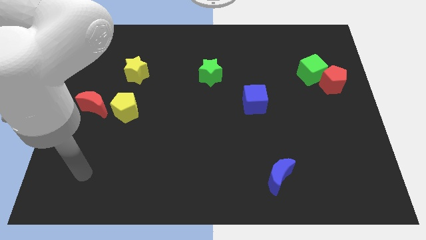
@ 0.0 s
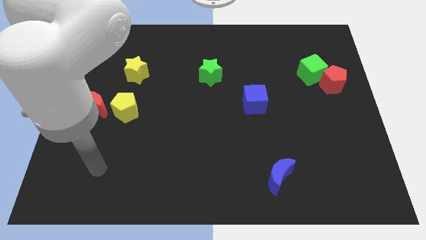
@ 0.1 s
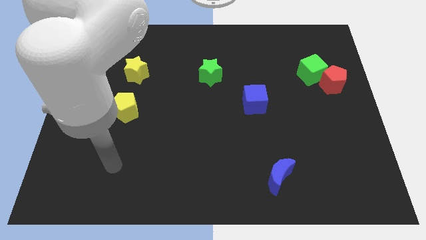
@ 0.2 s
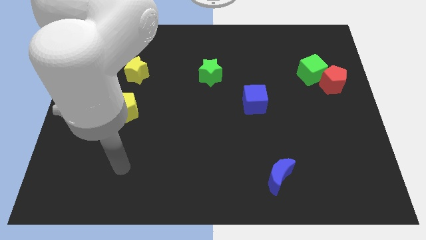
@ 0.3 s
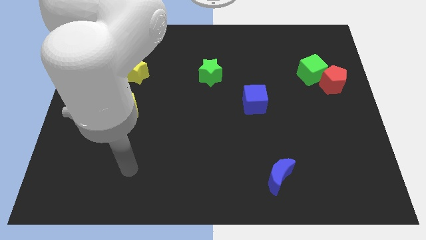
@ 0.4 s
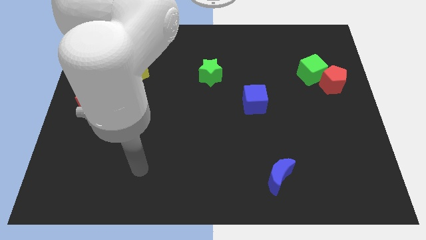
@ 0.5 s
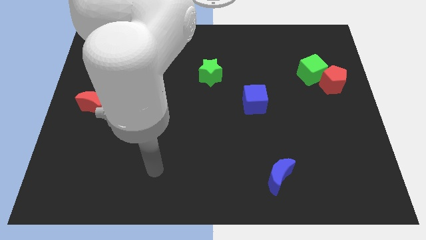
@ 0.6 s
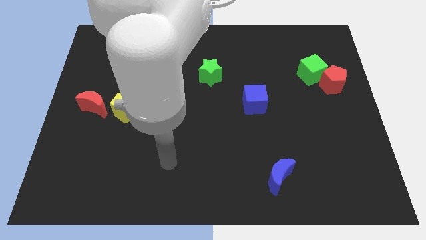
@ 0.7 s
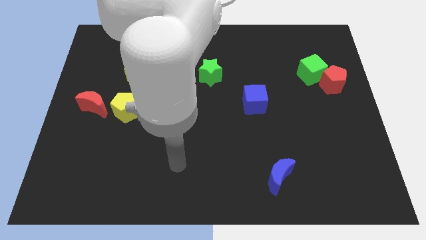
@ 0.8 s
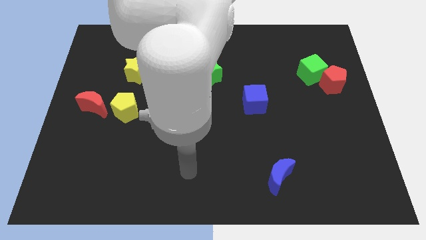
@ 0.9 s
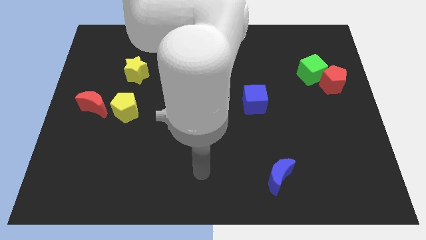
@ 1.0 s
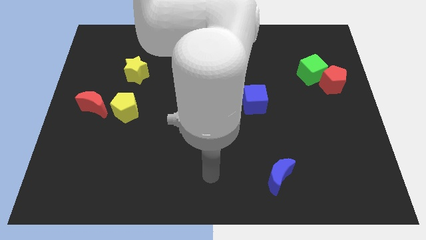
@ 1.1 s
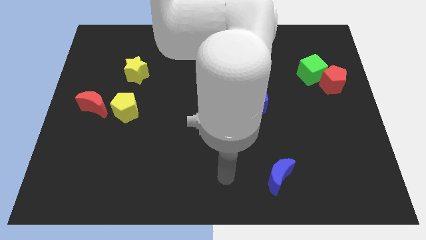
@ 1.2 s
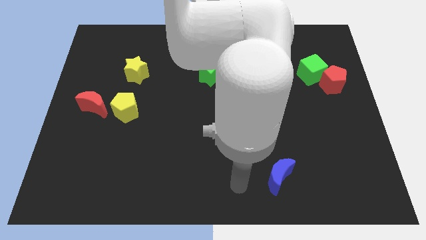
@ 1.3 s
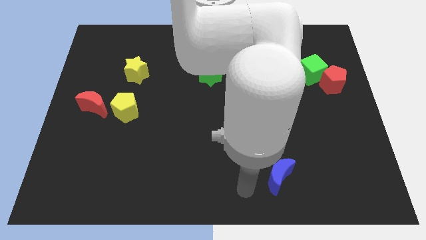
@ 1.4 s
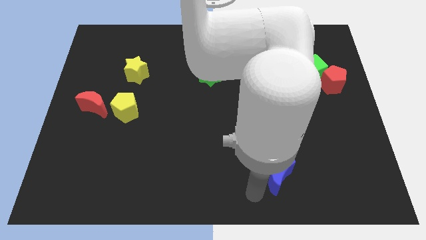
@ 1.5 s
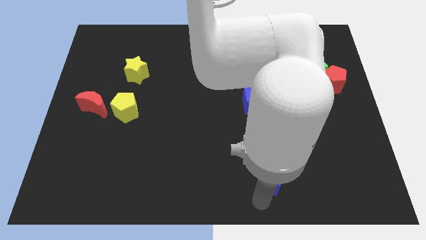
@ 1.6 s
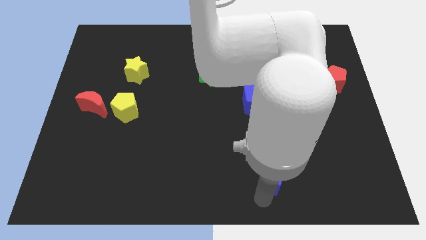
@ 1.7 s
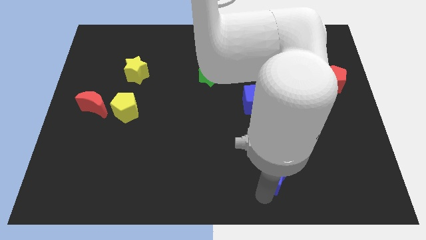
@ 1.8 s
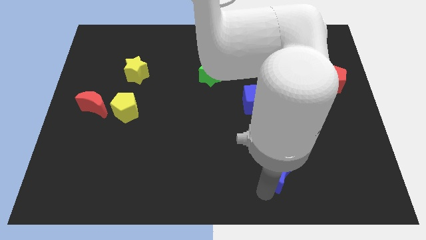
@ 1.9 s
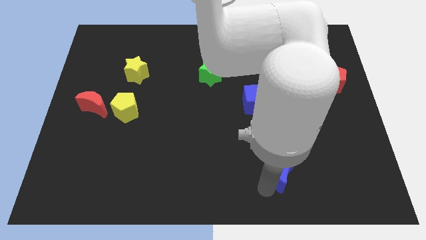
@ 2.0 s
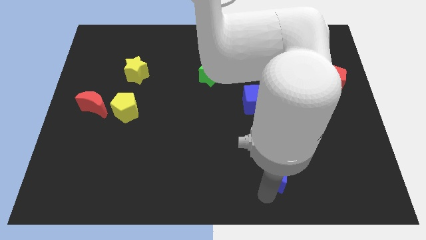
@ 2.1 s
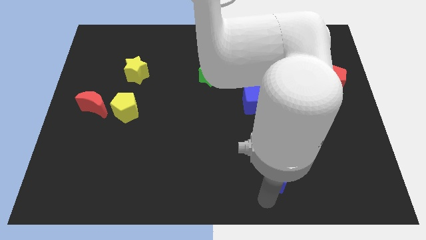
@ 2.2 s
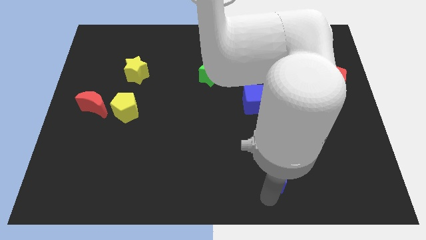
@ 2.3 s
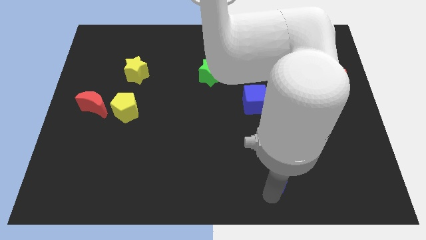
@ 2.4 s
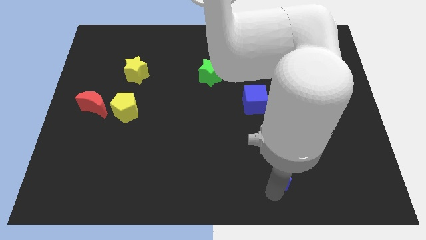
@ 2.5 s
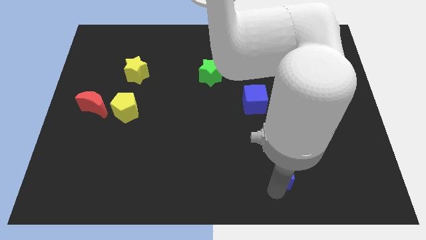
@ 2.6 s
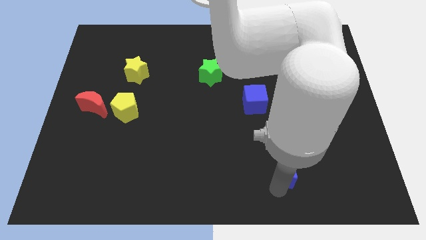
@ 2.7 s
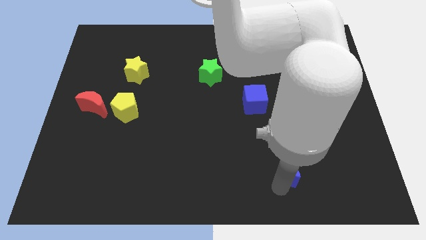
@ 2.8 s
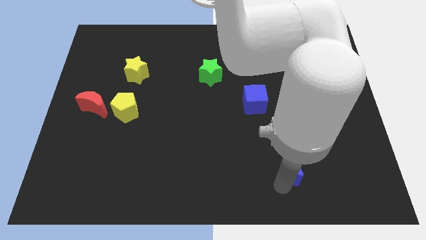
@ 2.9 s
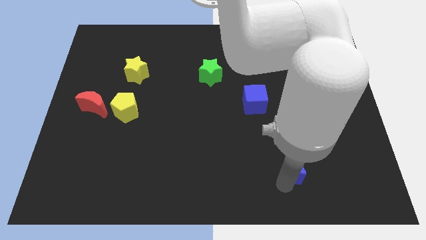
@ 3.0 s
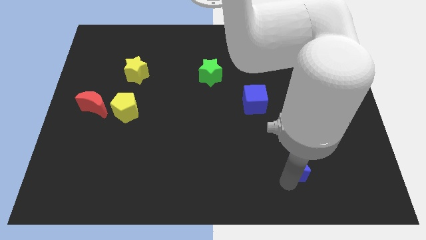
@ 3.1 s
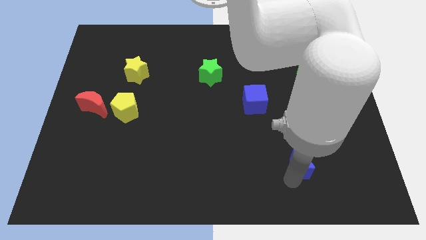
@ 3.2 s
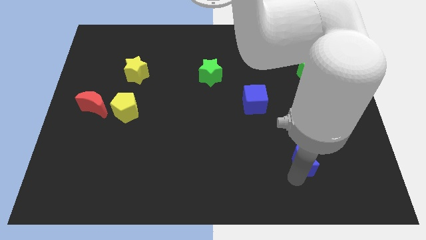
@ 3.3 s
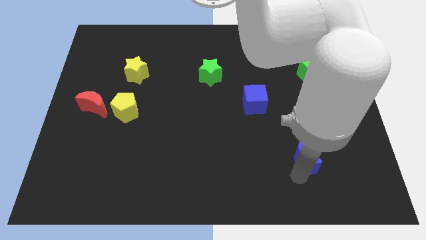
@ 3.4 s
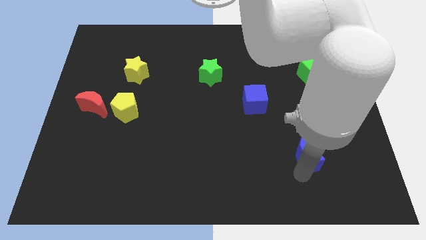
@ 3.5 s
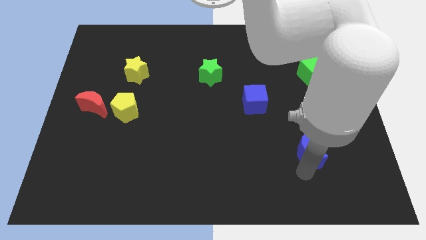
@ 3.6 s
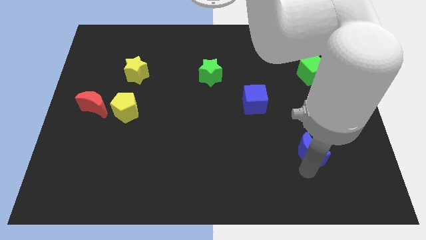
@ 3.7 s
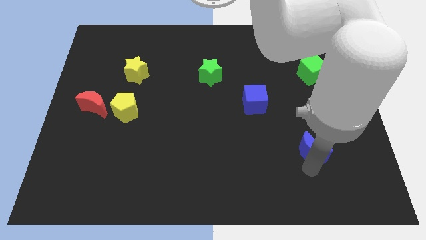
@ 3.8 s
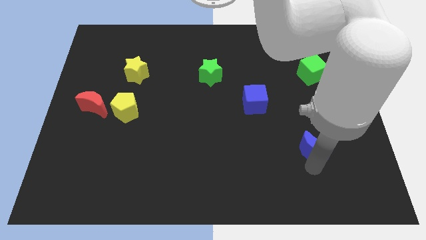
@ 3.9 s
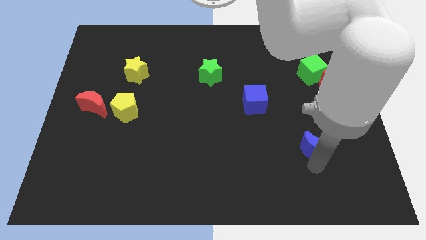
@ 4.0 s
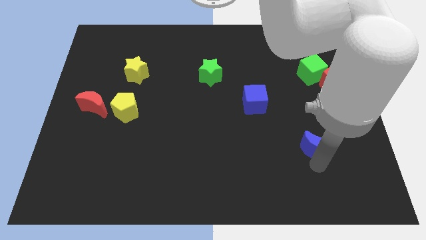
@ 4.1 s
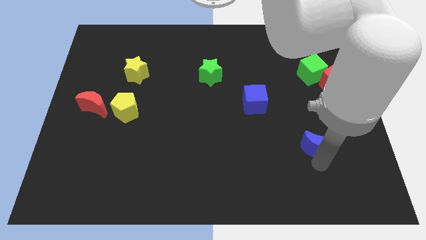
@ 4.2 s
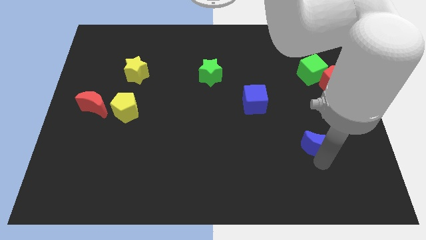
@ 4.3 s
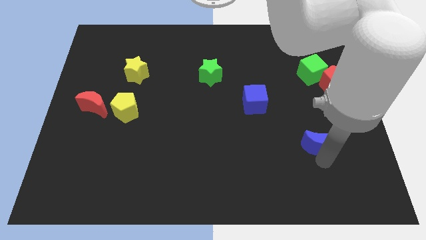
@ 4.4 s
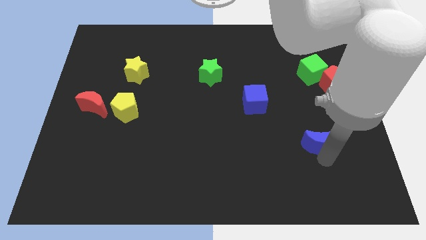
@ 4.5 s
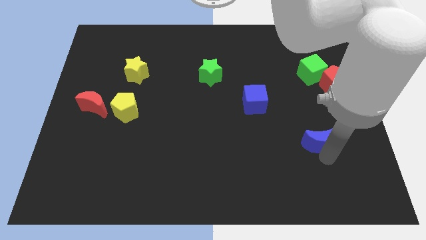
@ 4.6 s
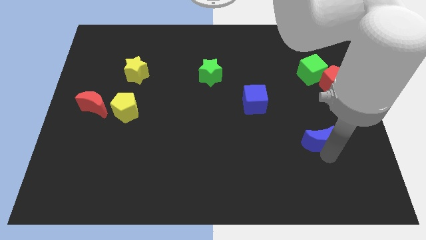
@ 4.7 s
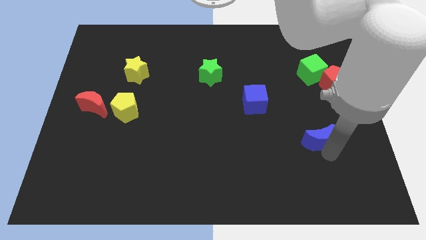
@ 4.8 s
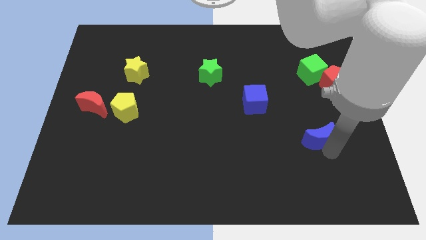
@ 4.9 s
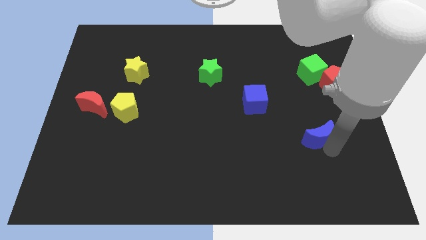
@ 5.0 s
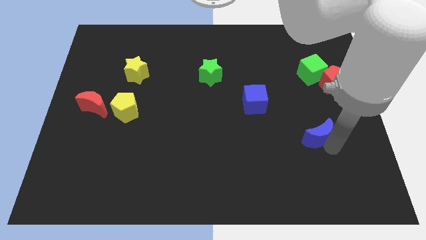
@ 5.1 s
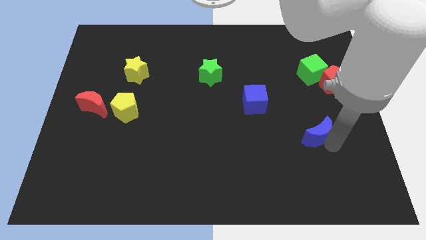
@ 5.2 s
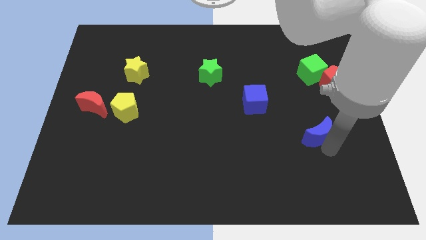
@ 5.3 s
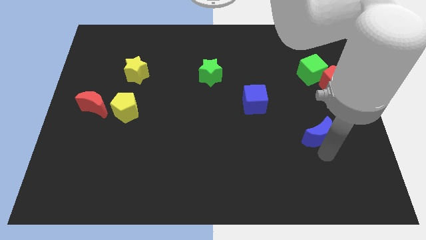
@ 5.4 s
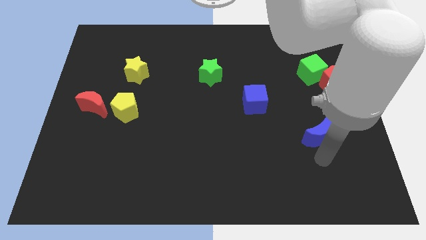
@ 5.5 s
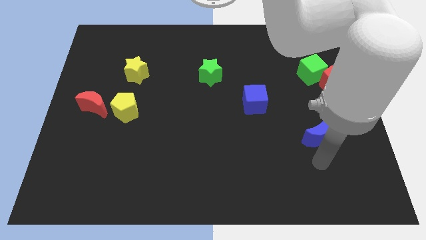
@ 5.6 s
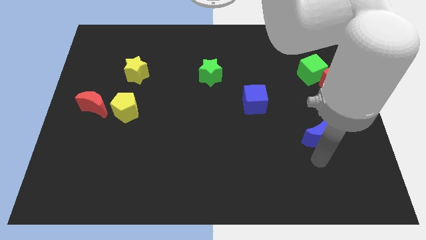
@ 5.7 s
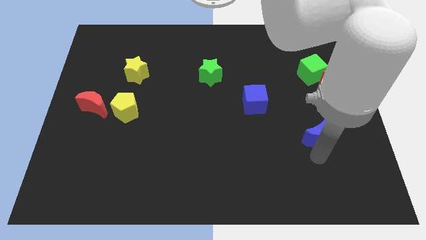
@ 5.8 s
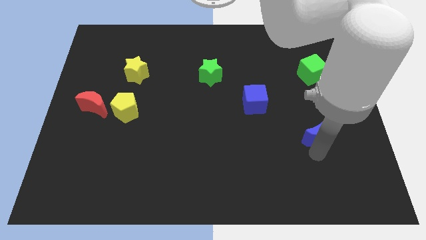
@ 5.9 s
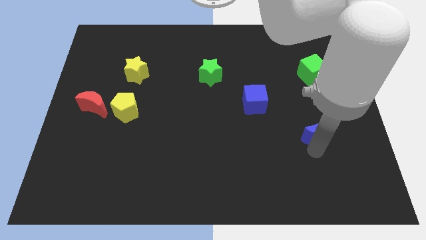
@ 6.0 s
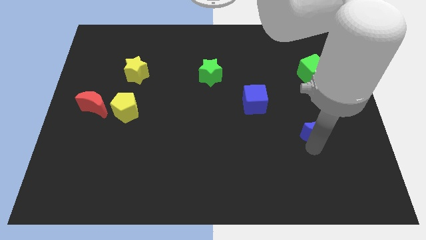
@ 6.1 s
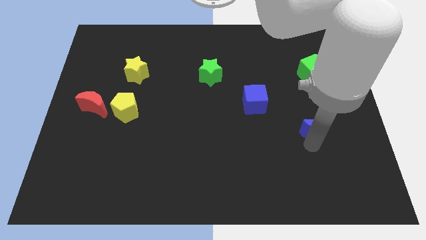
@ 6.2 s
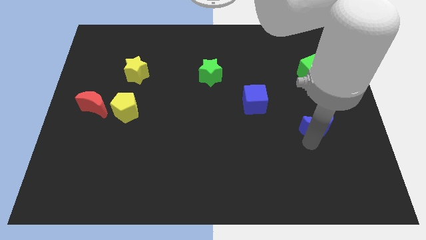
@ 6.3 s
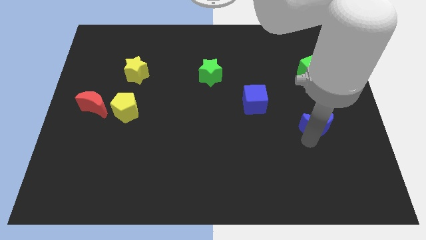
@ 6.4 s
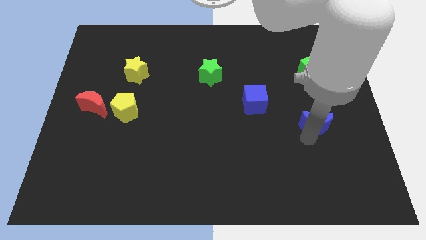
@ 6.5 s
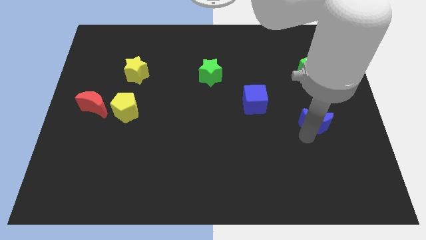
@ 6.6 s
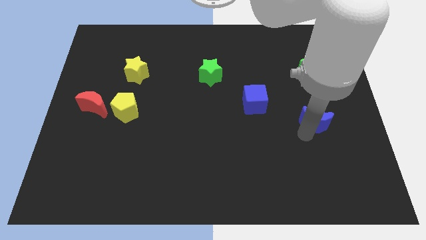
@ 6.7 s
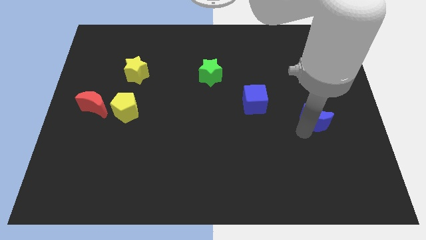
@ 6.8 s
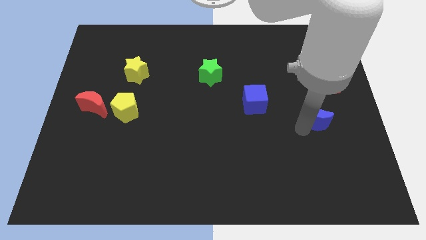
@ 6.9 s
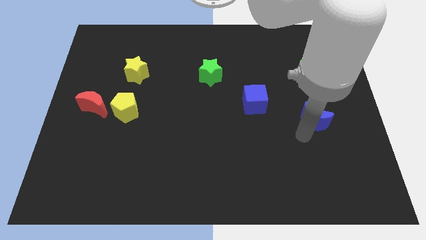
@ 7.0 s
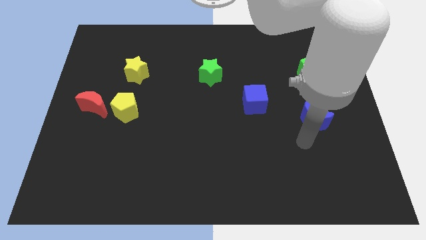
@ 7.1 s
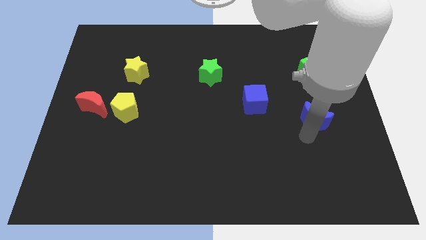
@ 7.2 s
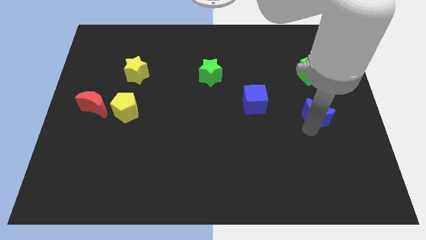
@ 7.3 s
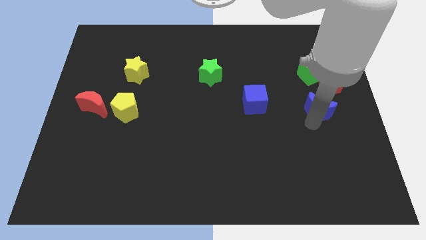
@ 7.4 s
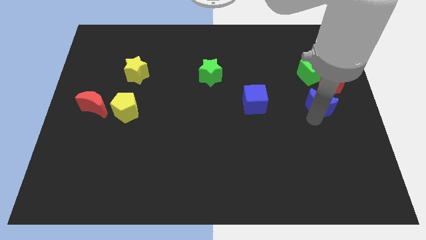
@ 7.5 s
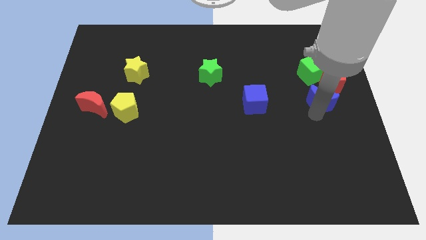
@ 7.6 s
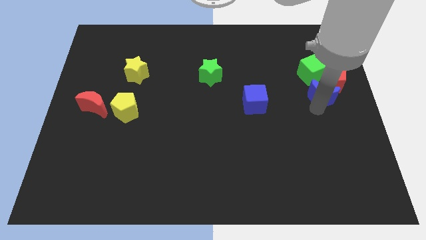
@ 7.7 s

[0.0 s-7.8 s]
move the blue moon to the red pentagon
